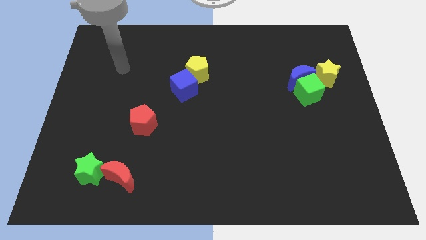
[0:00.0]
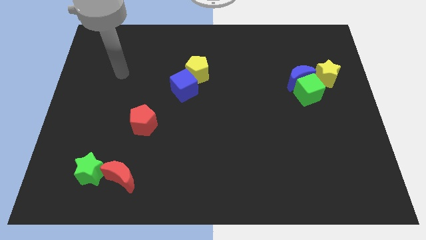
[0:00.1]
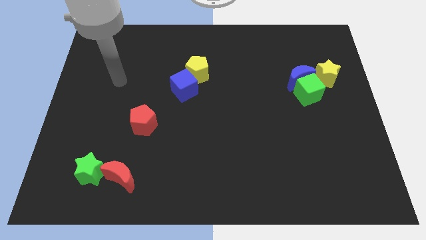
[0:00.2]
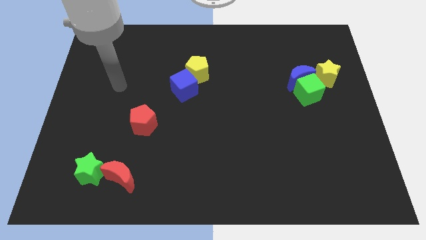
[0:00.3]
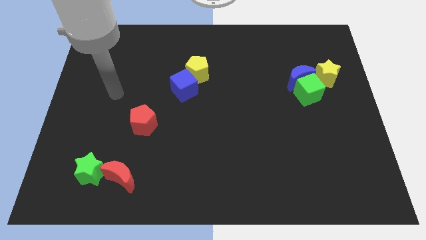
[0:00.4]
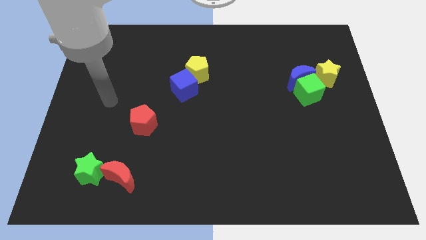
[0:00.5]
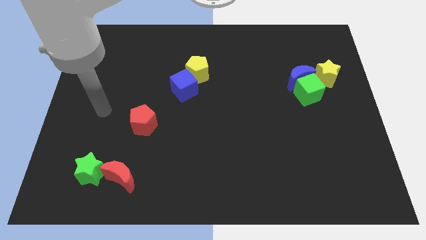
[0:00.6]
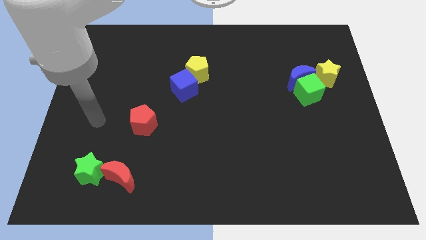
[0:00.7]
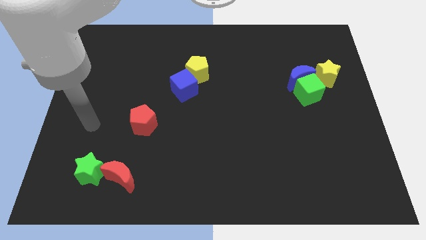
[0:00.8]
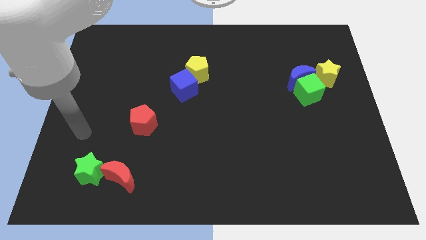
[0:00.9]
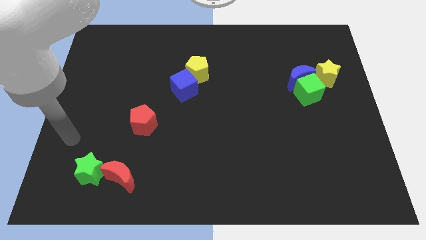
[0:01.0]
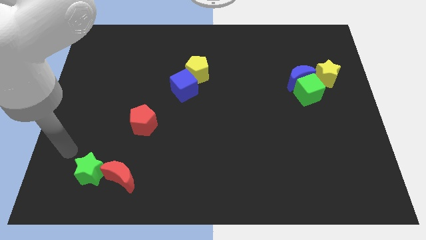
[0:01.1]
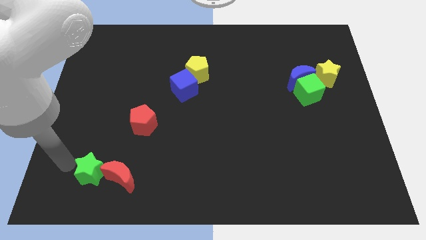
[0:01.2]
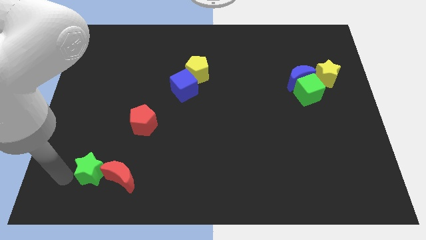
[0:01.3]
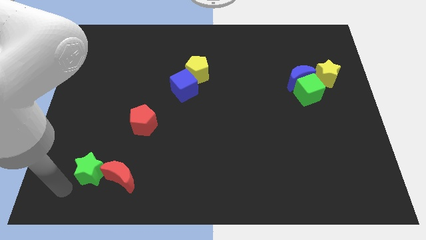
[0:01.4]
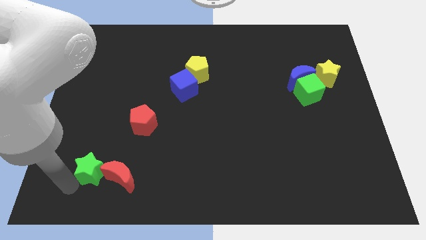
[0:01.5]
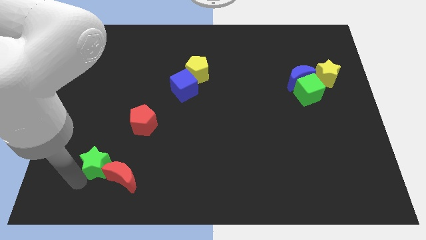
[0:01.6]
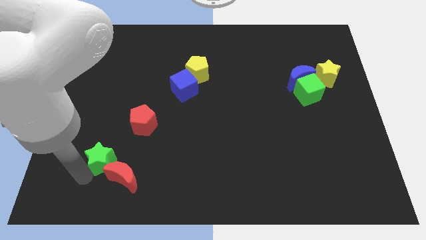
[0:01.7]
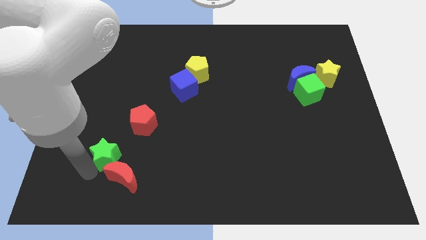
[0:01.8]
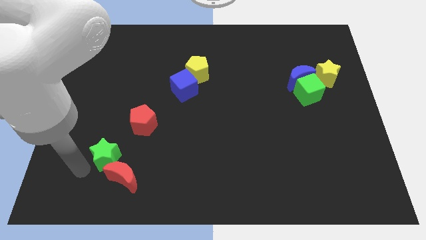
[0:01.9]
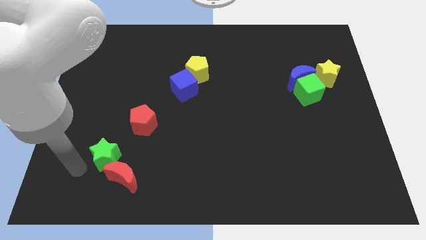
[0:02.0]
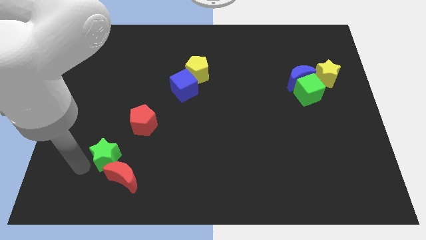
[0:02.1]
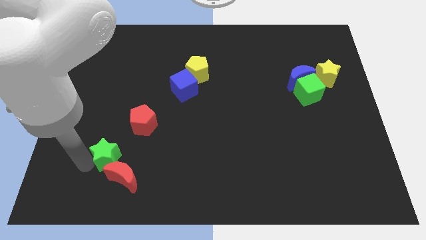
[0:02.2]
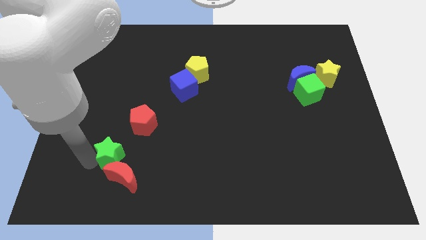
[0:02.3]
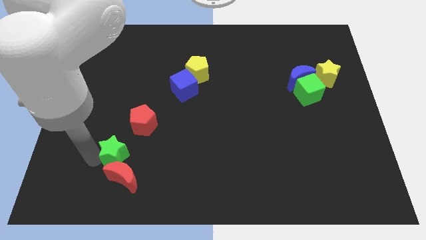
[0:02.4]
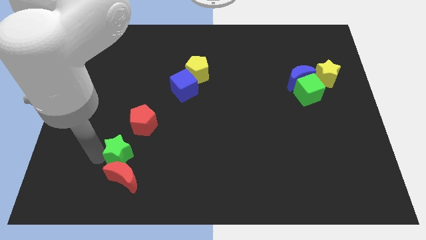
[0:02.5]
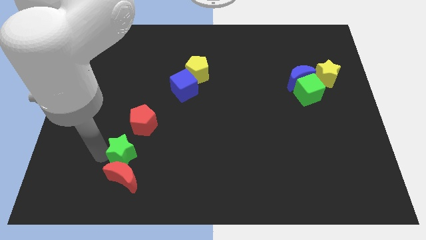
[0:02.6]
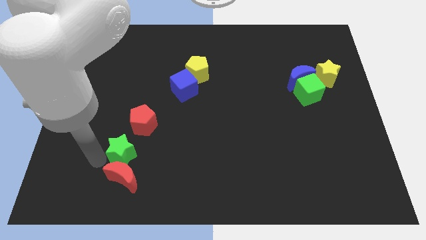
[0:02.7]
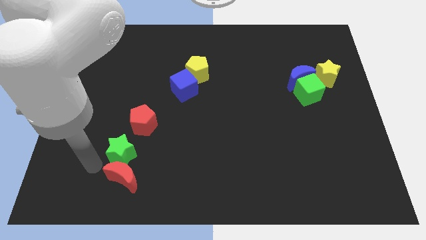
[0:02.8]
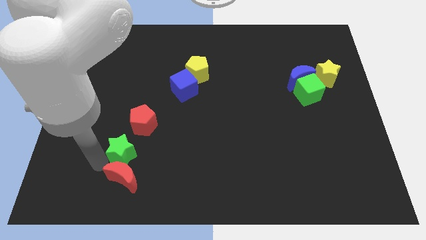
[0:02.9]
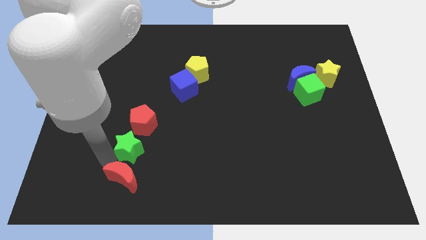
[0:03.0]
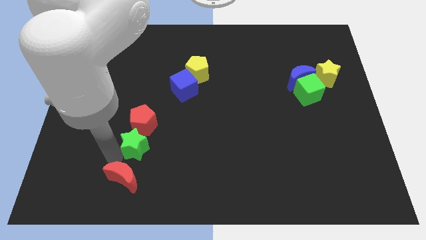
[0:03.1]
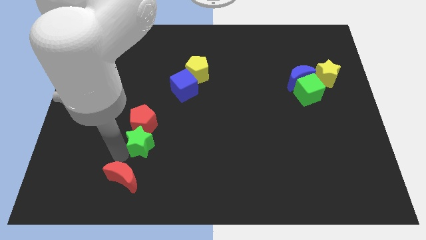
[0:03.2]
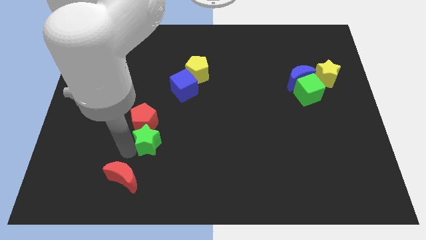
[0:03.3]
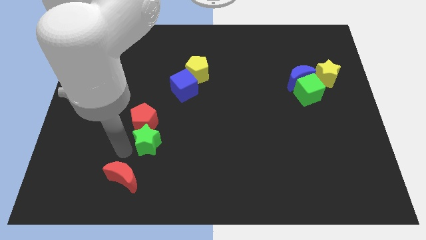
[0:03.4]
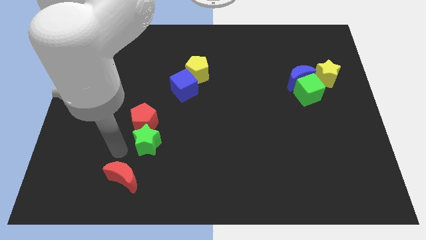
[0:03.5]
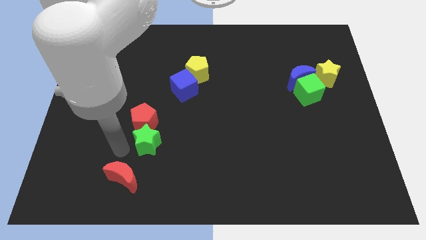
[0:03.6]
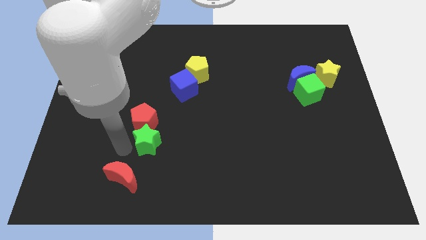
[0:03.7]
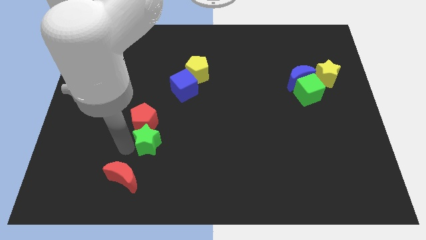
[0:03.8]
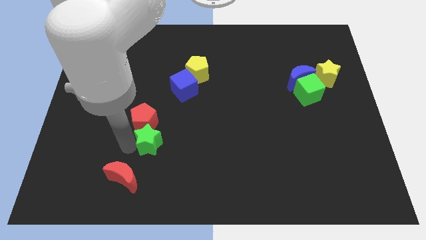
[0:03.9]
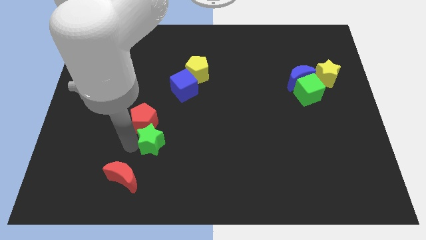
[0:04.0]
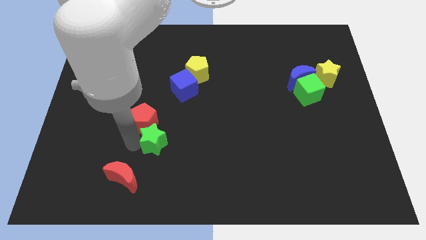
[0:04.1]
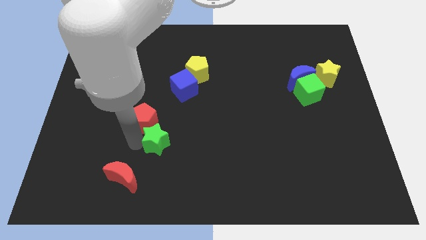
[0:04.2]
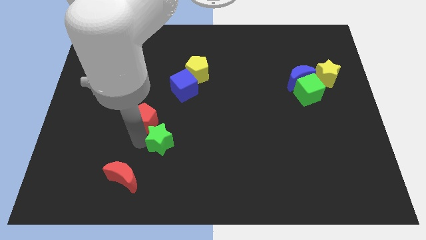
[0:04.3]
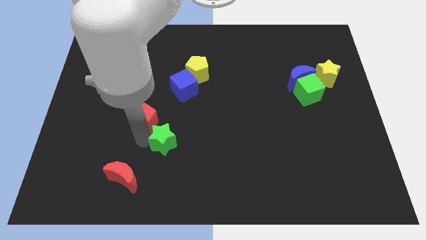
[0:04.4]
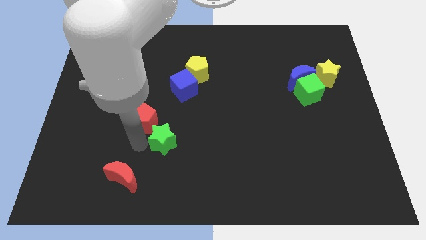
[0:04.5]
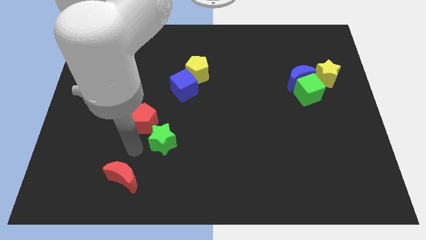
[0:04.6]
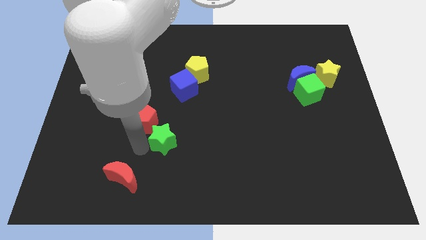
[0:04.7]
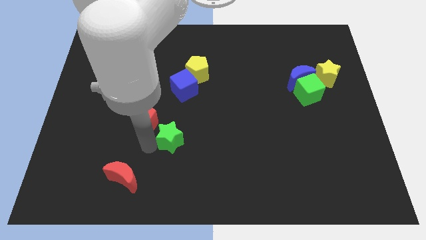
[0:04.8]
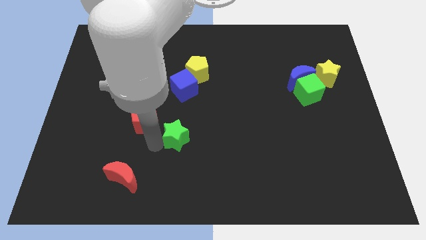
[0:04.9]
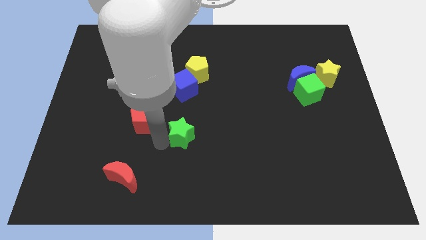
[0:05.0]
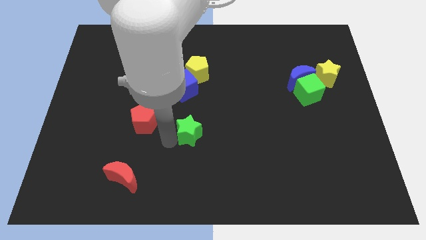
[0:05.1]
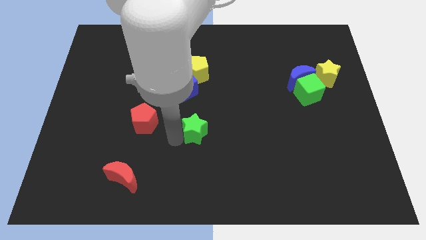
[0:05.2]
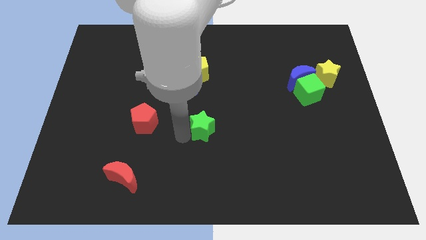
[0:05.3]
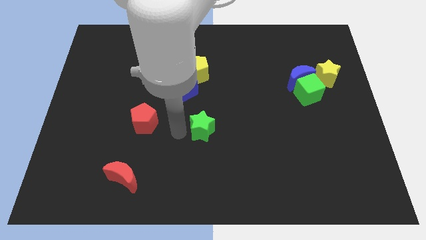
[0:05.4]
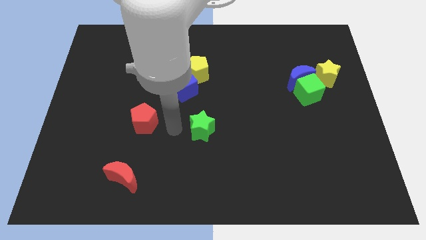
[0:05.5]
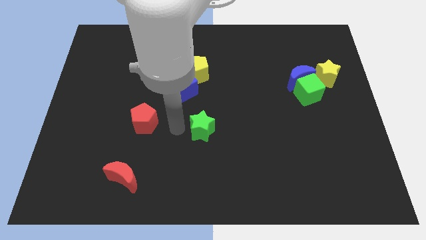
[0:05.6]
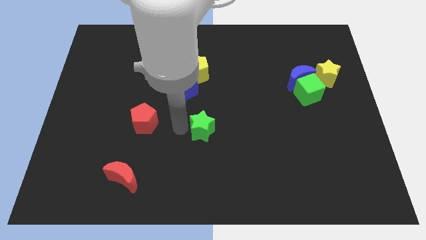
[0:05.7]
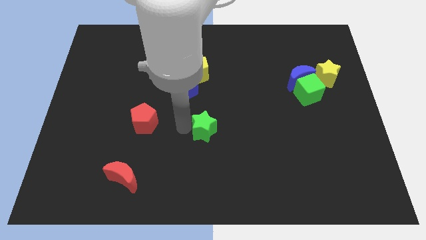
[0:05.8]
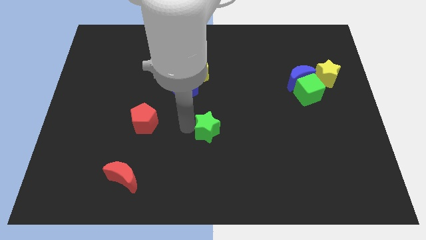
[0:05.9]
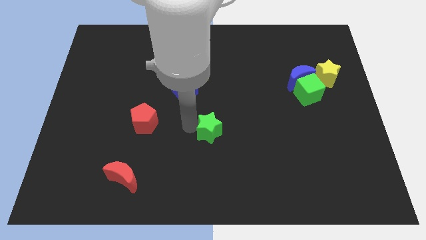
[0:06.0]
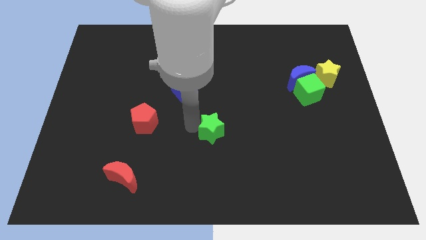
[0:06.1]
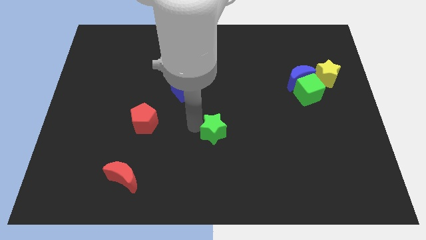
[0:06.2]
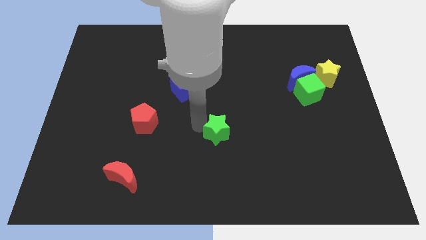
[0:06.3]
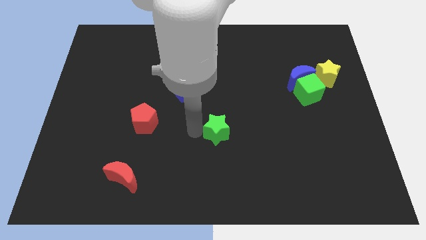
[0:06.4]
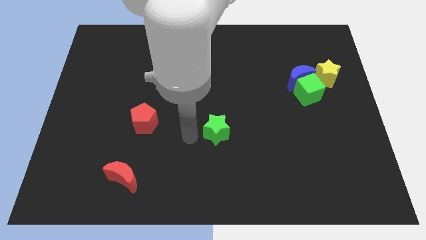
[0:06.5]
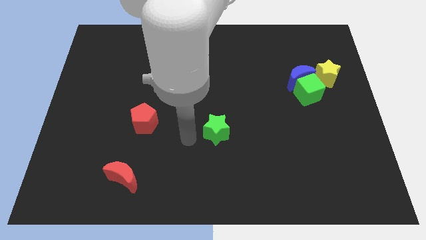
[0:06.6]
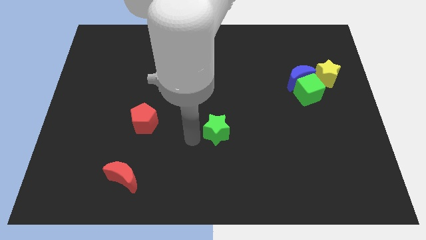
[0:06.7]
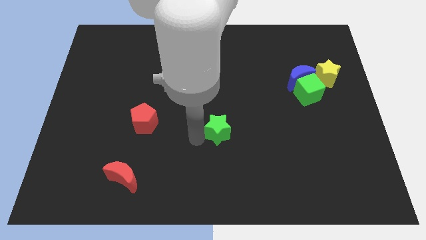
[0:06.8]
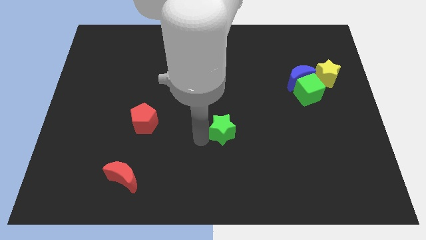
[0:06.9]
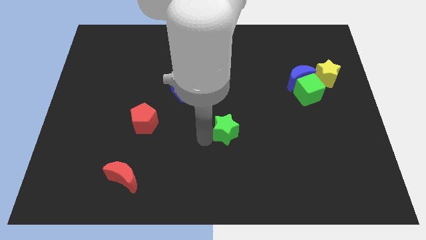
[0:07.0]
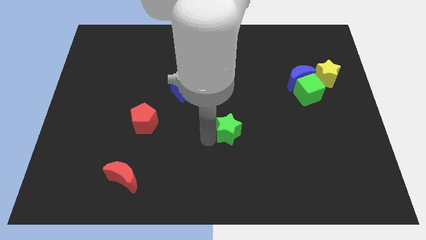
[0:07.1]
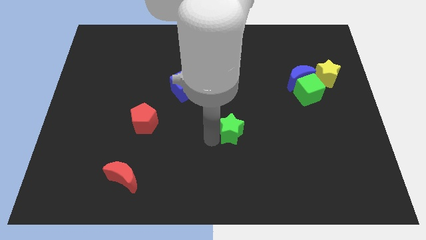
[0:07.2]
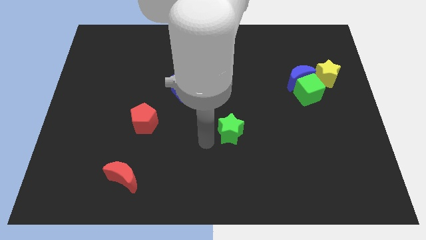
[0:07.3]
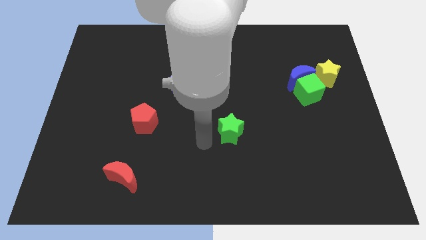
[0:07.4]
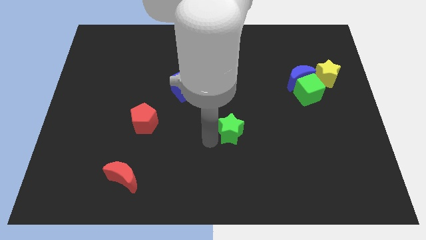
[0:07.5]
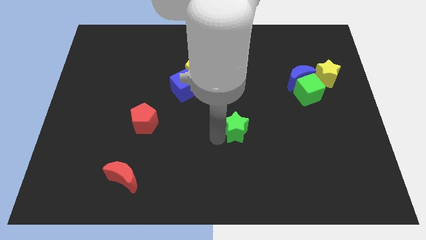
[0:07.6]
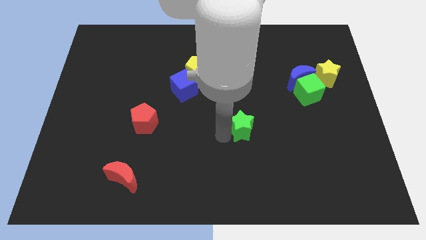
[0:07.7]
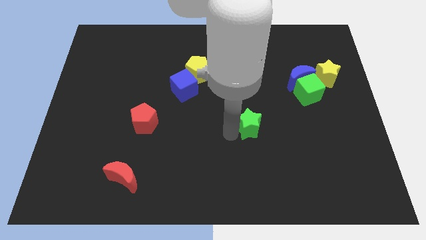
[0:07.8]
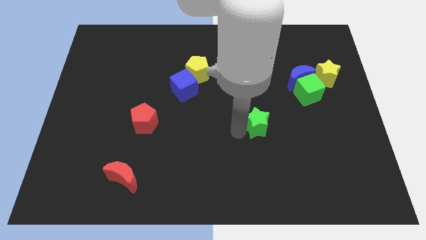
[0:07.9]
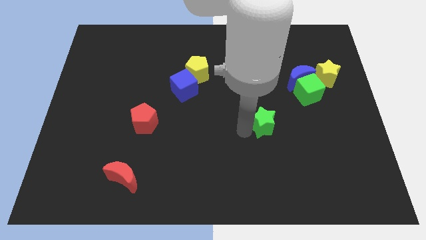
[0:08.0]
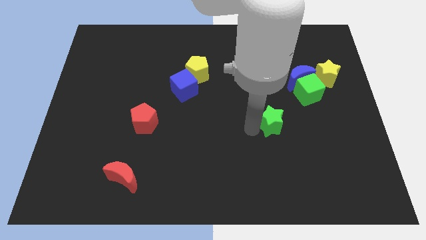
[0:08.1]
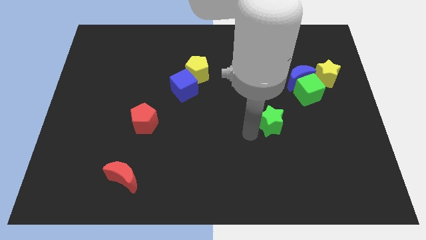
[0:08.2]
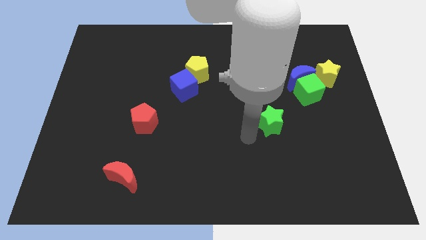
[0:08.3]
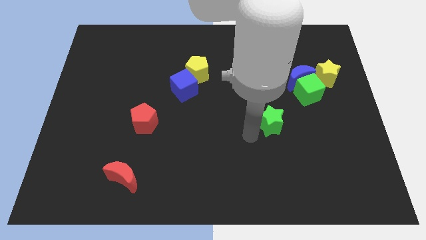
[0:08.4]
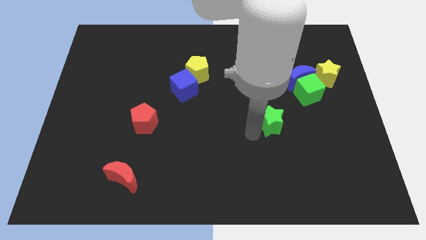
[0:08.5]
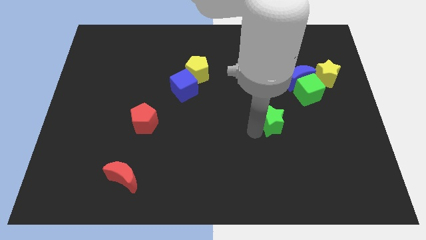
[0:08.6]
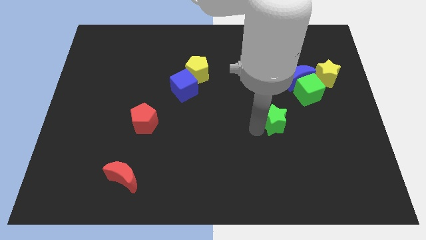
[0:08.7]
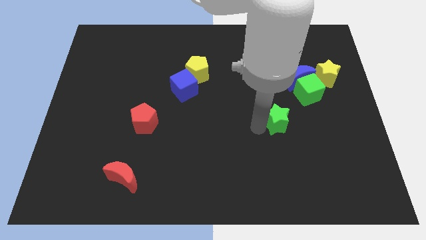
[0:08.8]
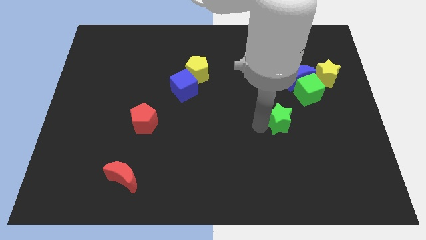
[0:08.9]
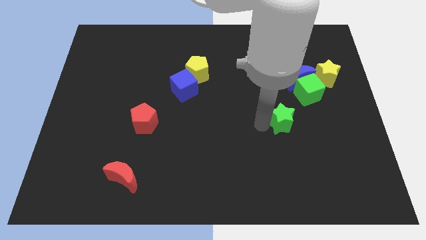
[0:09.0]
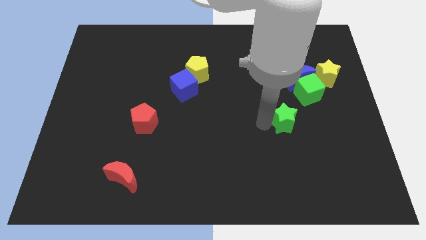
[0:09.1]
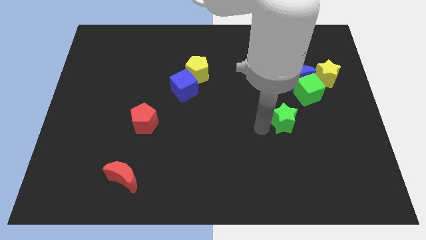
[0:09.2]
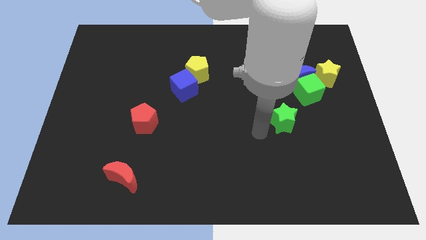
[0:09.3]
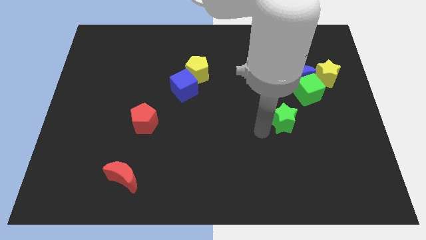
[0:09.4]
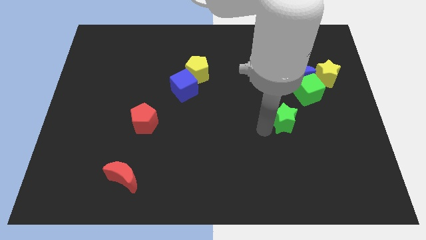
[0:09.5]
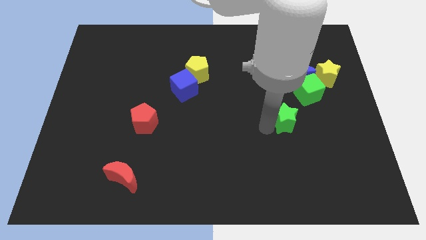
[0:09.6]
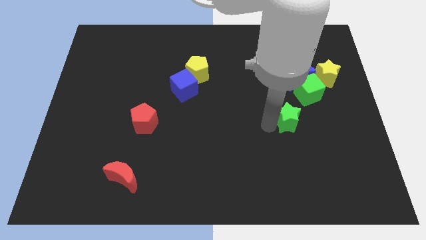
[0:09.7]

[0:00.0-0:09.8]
slide the green star below the blue moon
